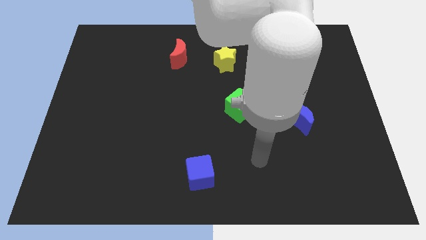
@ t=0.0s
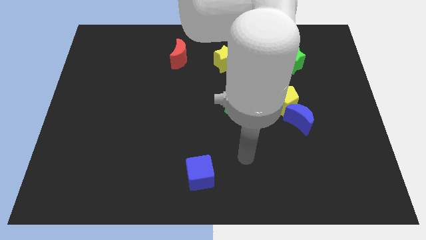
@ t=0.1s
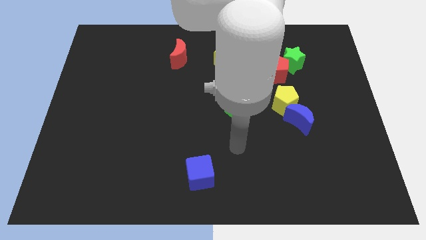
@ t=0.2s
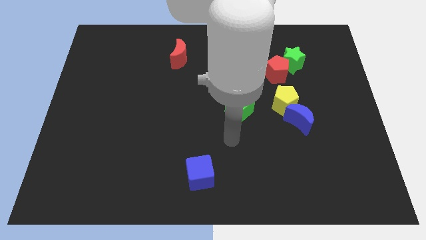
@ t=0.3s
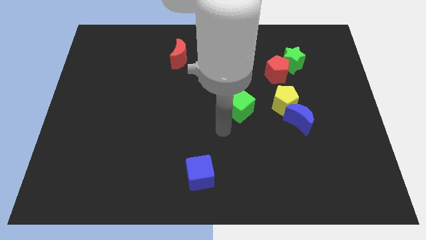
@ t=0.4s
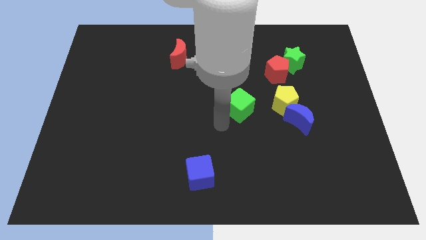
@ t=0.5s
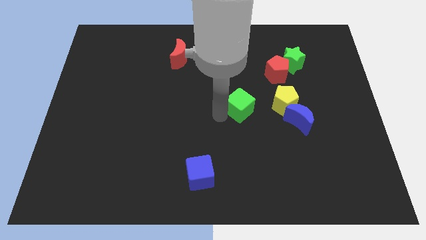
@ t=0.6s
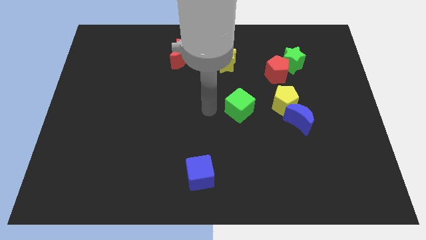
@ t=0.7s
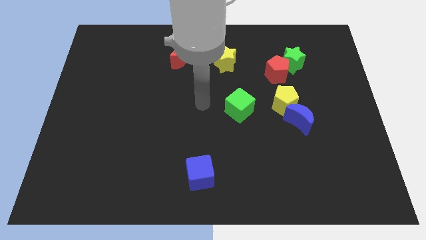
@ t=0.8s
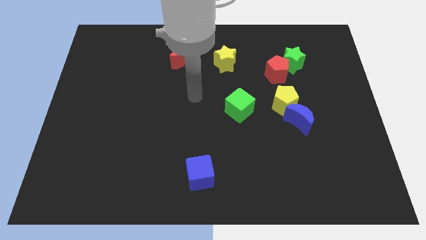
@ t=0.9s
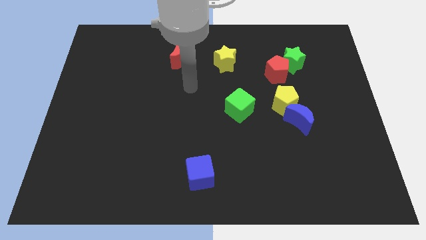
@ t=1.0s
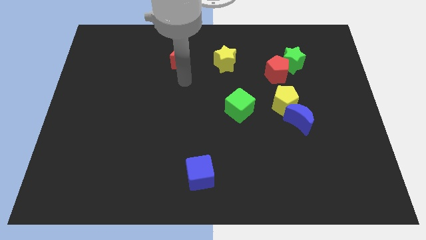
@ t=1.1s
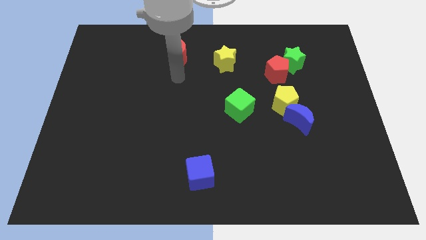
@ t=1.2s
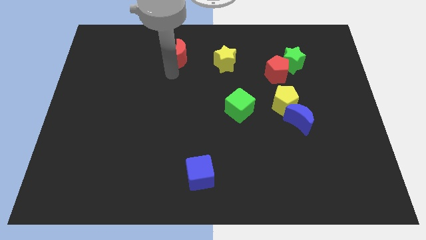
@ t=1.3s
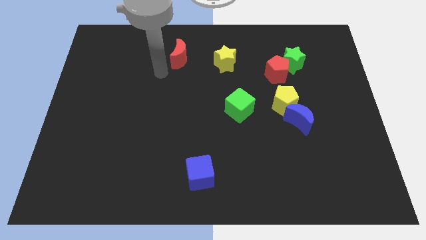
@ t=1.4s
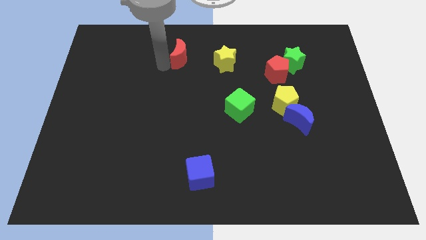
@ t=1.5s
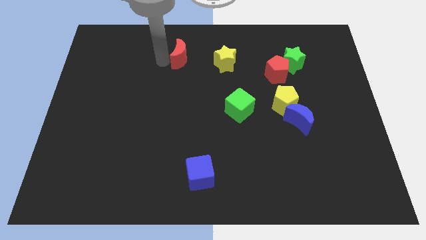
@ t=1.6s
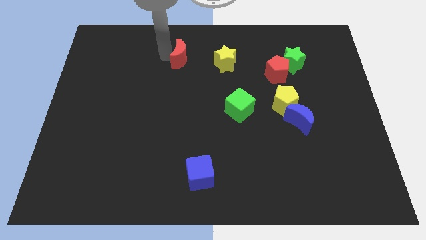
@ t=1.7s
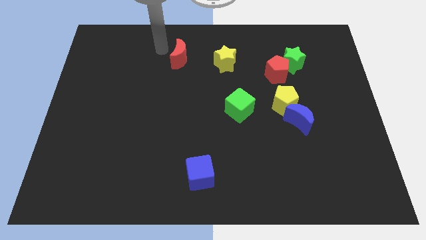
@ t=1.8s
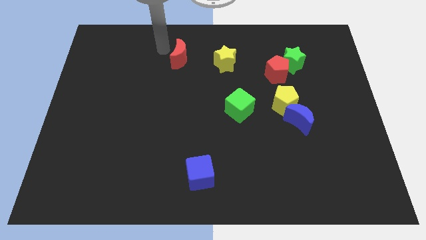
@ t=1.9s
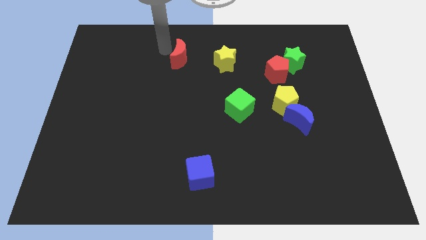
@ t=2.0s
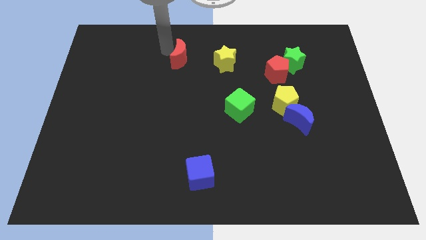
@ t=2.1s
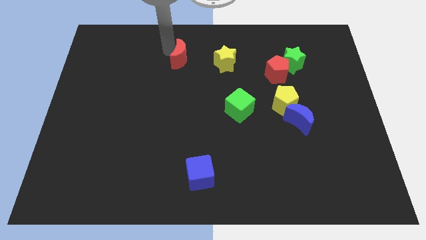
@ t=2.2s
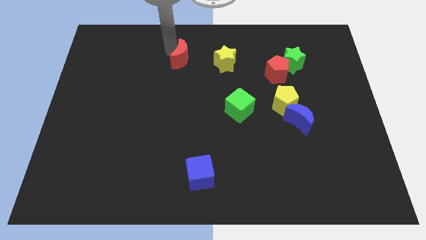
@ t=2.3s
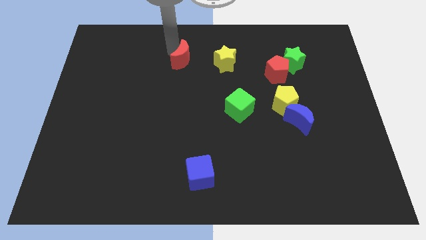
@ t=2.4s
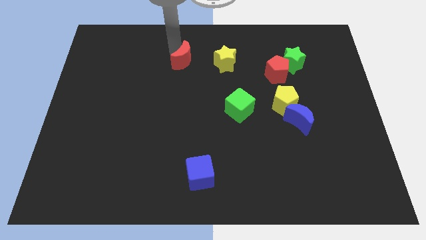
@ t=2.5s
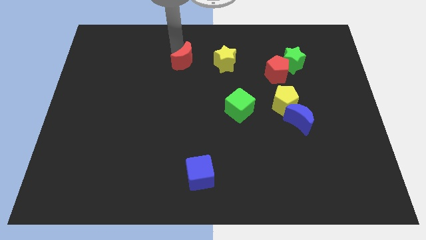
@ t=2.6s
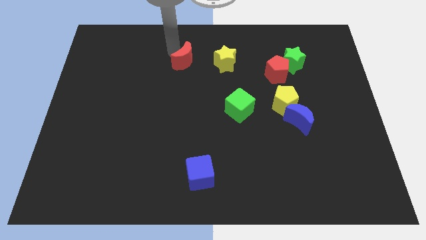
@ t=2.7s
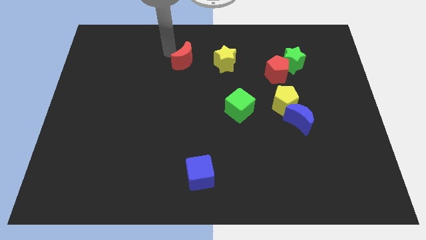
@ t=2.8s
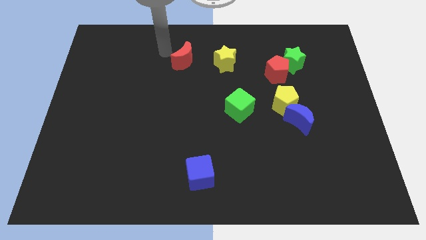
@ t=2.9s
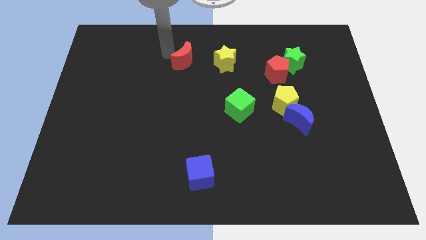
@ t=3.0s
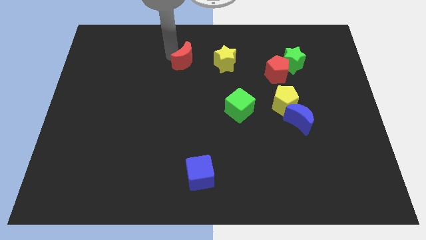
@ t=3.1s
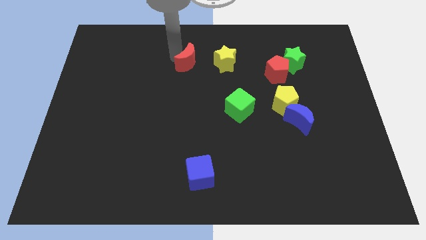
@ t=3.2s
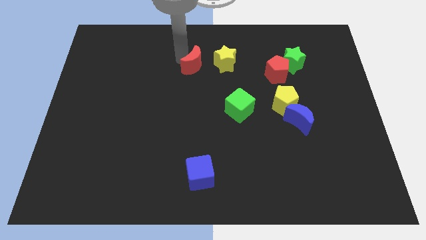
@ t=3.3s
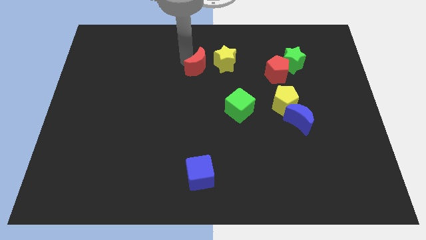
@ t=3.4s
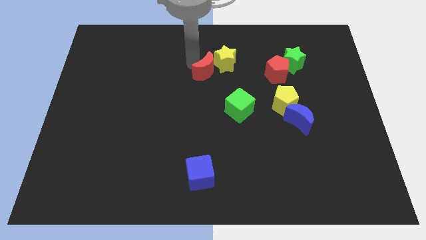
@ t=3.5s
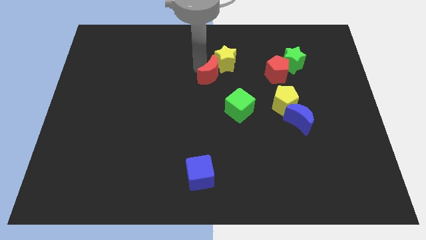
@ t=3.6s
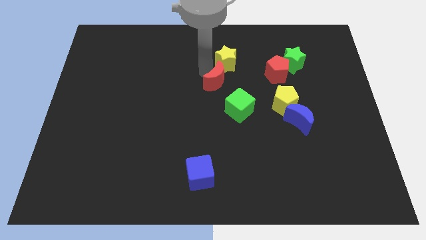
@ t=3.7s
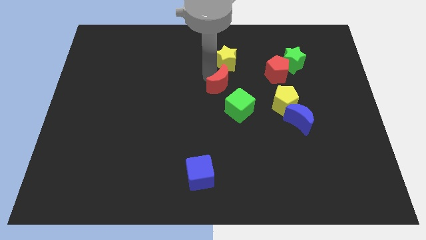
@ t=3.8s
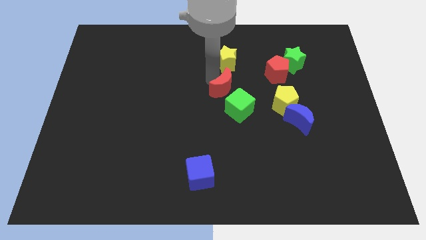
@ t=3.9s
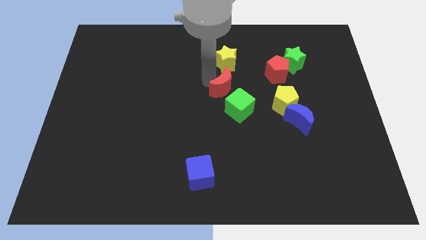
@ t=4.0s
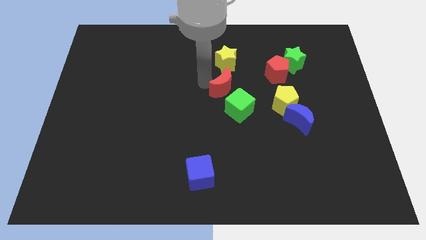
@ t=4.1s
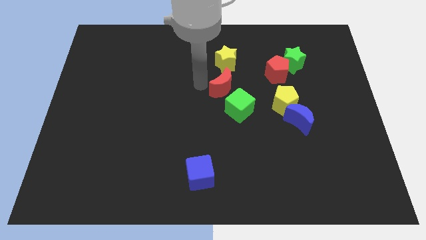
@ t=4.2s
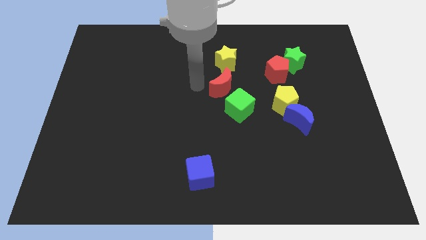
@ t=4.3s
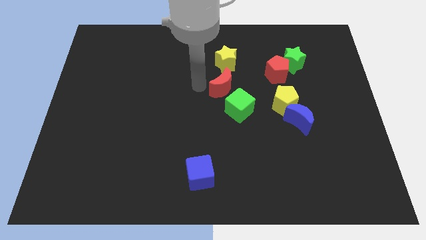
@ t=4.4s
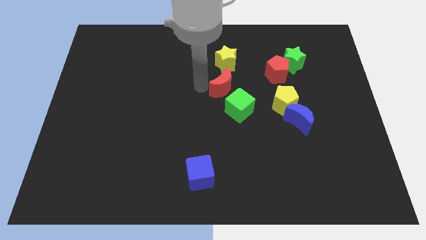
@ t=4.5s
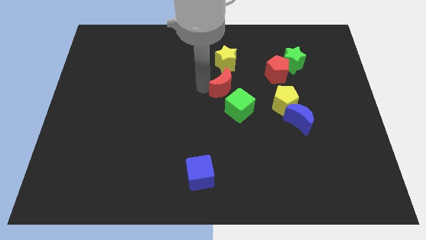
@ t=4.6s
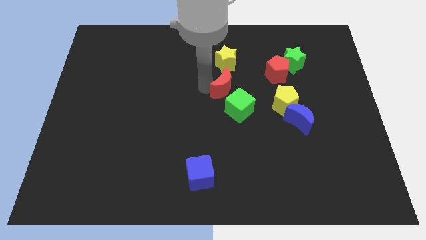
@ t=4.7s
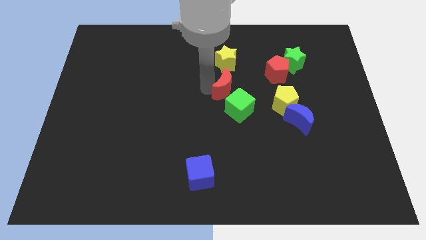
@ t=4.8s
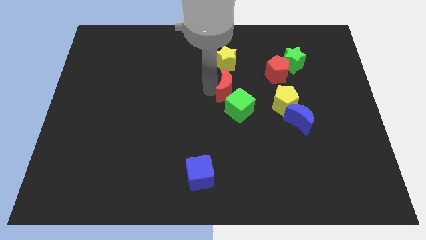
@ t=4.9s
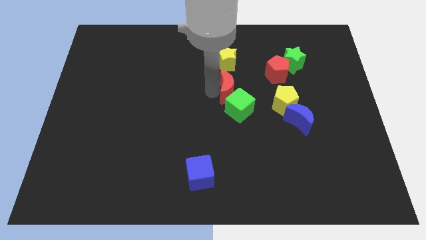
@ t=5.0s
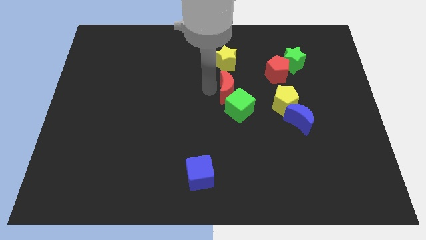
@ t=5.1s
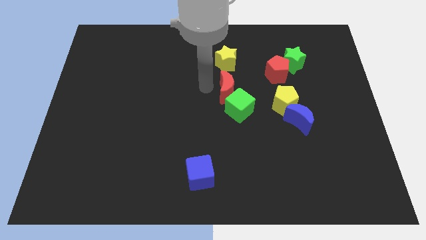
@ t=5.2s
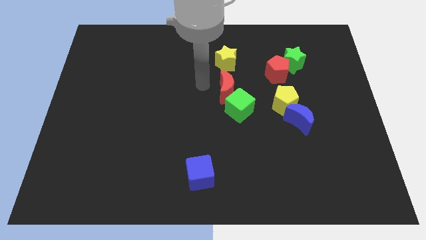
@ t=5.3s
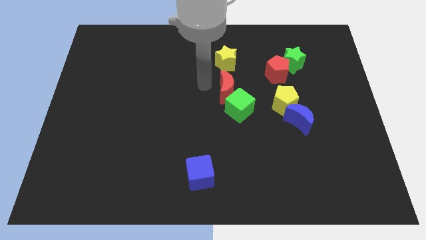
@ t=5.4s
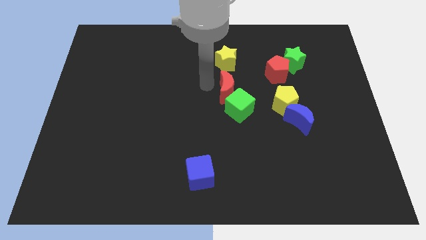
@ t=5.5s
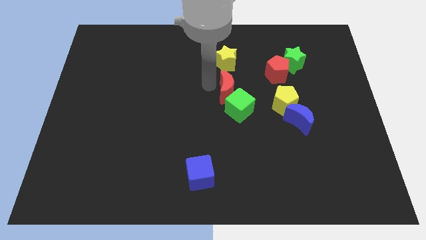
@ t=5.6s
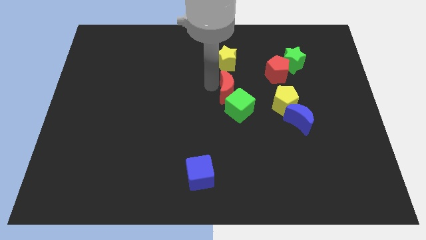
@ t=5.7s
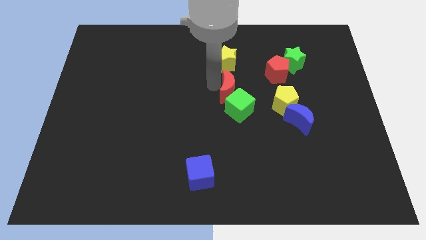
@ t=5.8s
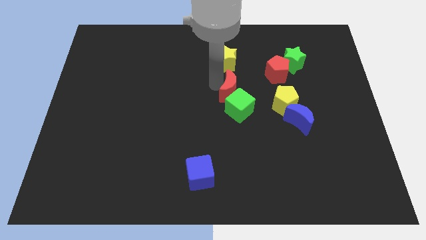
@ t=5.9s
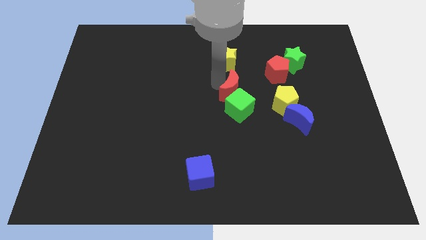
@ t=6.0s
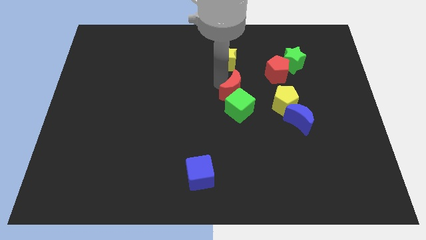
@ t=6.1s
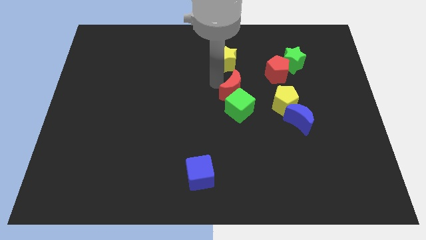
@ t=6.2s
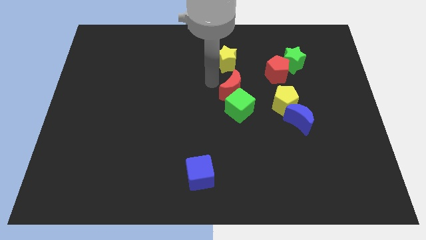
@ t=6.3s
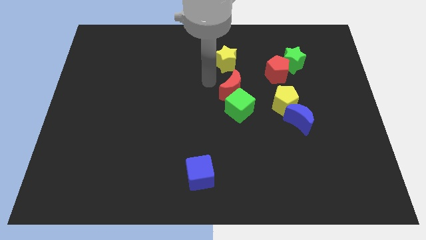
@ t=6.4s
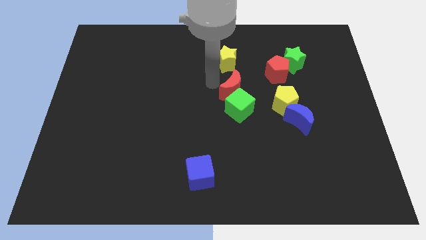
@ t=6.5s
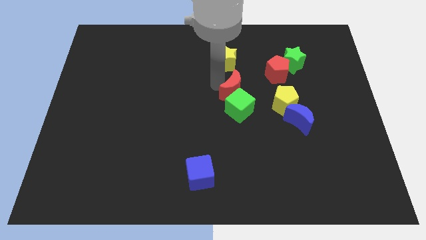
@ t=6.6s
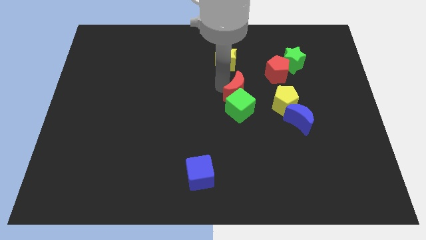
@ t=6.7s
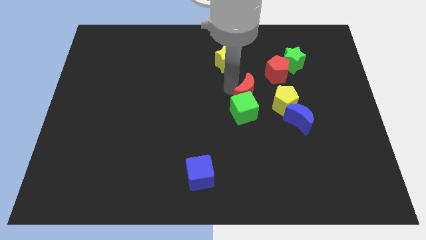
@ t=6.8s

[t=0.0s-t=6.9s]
slide the red moon downwards and right diagonally

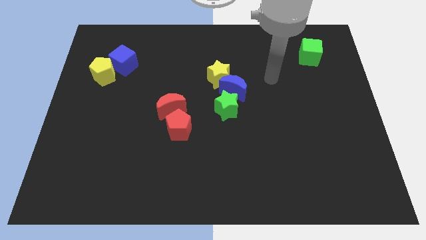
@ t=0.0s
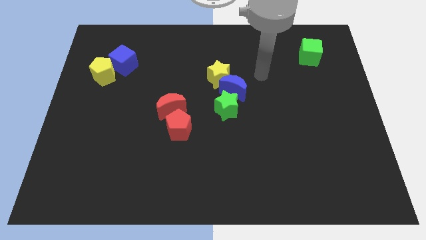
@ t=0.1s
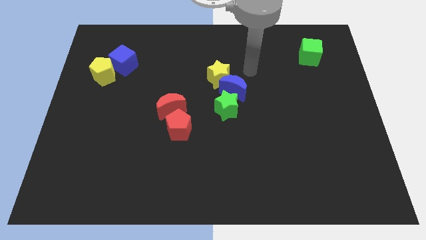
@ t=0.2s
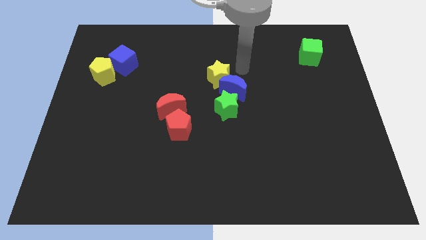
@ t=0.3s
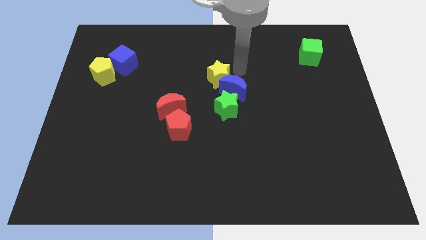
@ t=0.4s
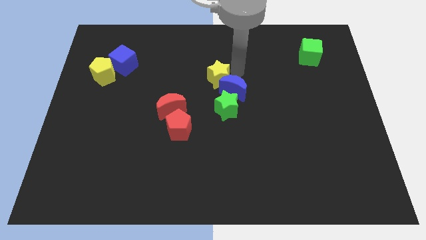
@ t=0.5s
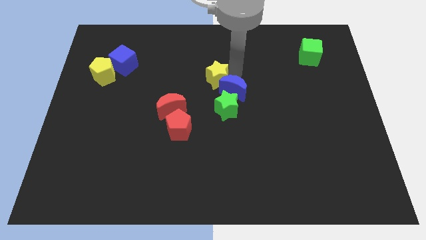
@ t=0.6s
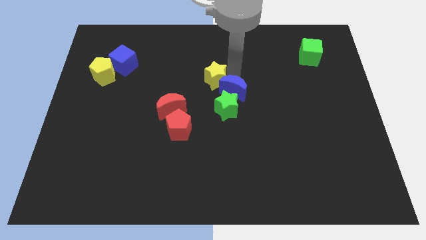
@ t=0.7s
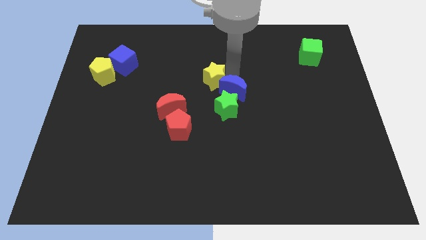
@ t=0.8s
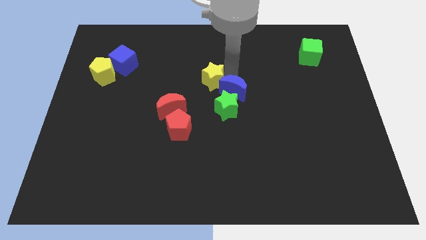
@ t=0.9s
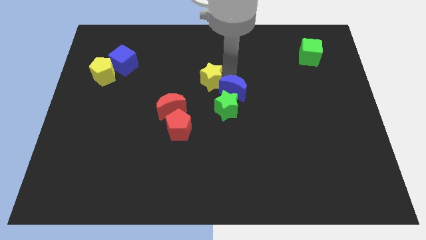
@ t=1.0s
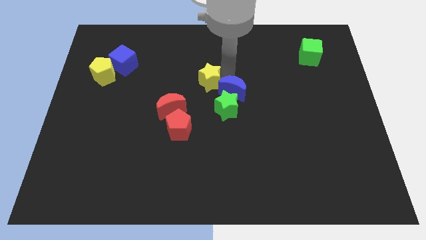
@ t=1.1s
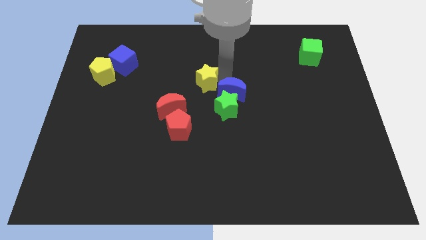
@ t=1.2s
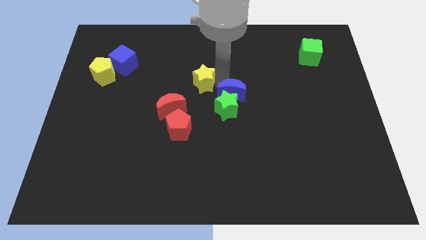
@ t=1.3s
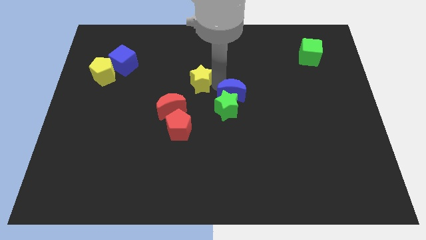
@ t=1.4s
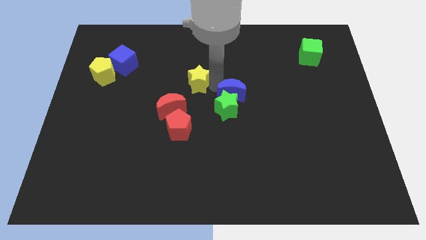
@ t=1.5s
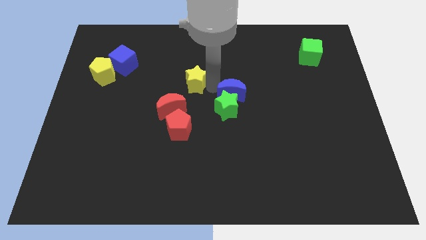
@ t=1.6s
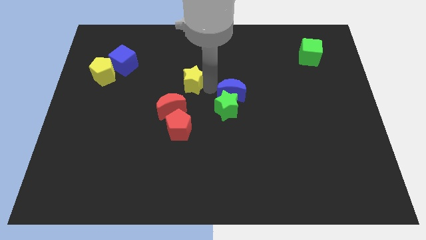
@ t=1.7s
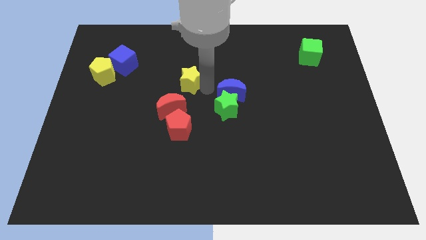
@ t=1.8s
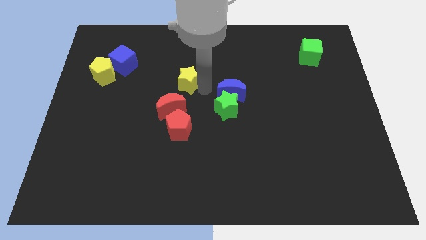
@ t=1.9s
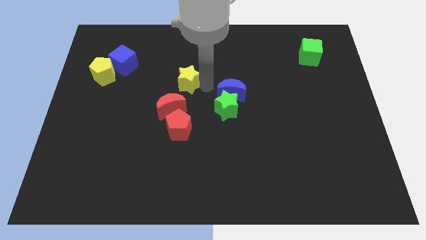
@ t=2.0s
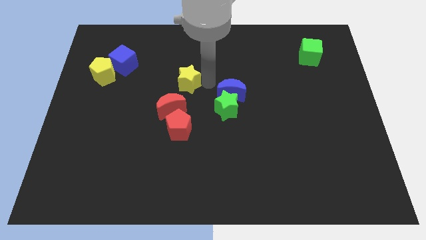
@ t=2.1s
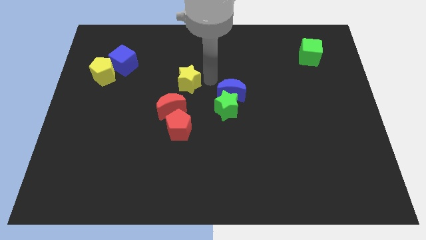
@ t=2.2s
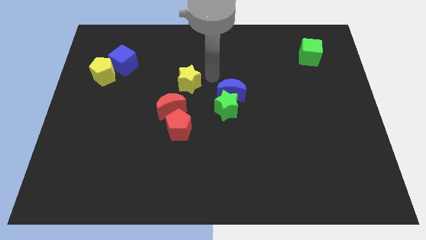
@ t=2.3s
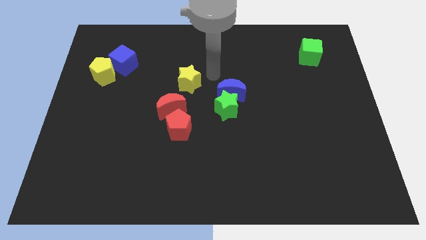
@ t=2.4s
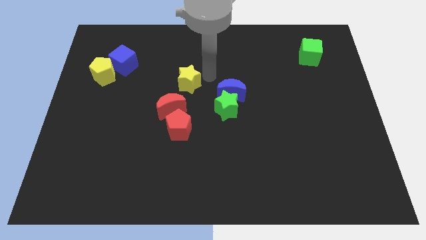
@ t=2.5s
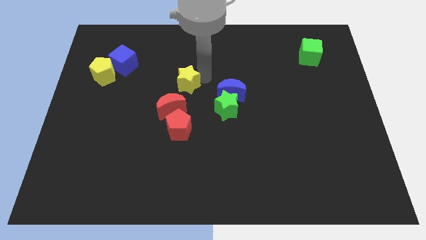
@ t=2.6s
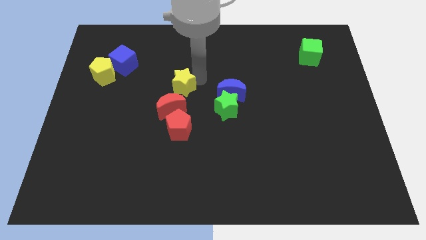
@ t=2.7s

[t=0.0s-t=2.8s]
slightly move the yellow star downwards and to the left diagonally
